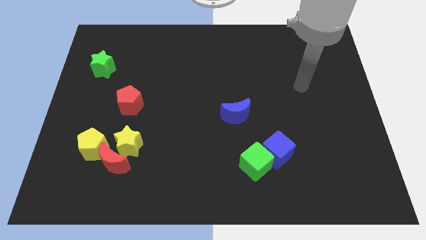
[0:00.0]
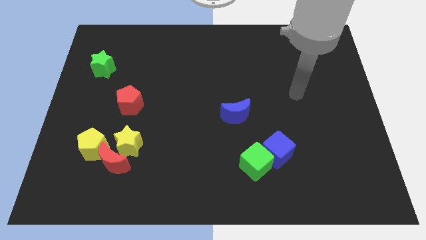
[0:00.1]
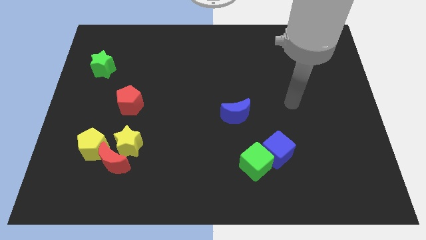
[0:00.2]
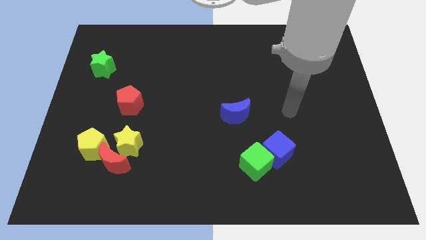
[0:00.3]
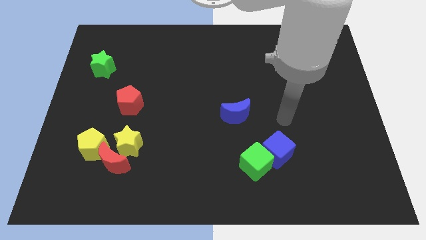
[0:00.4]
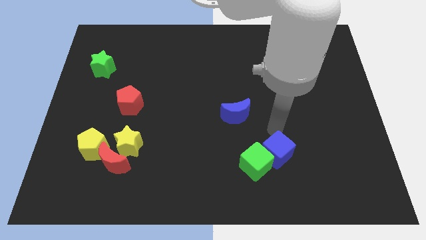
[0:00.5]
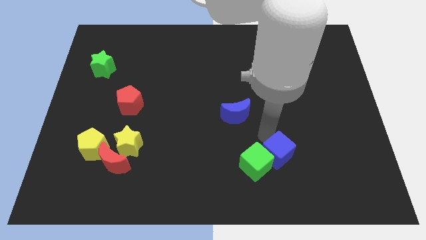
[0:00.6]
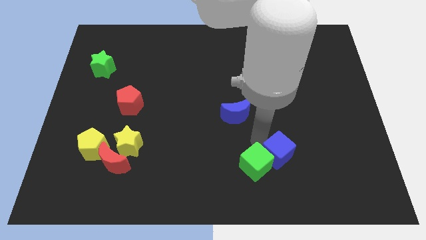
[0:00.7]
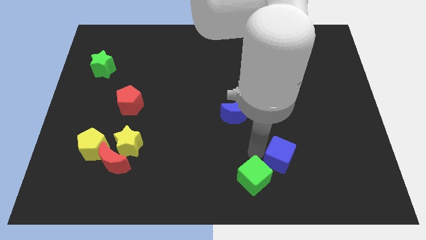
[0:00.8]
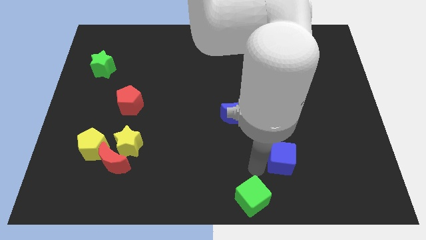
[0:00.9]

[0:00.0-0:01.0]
move the blue cube away from the green cube

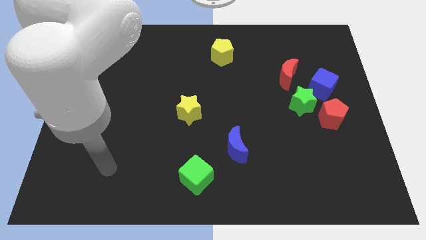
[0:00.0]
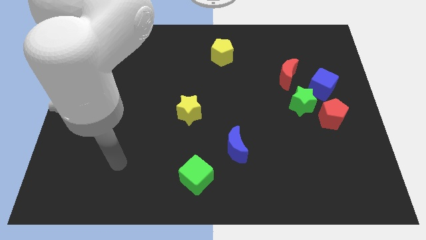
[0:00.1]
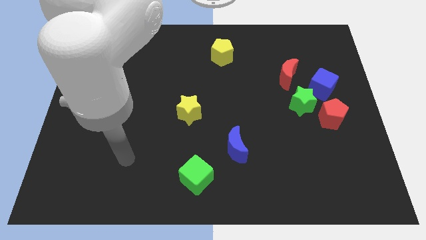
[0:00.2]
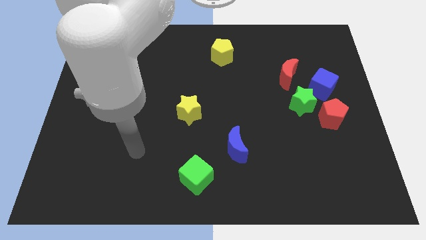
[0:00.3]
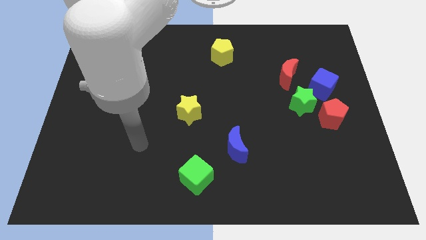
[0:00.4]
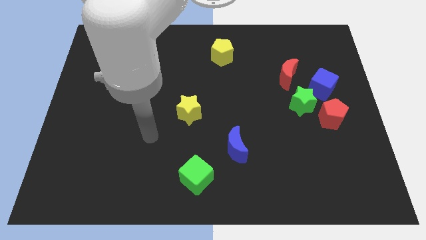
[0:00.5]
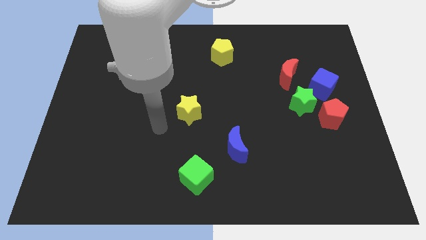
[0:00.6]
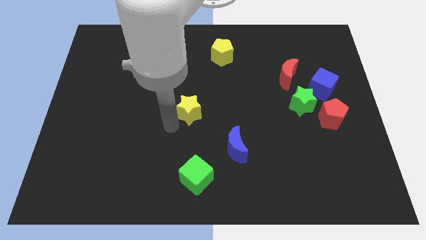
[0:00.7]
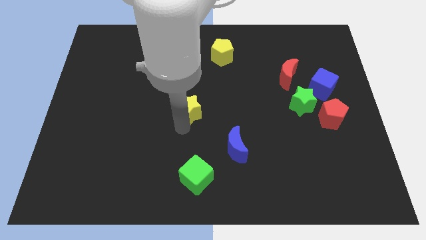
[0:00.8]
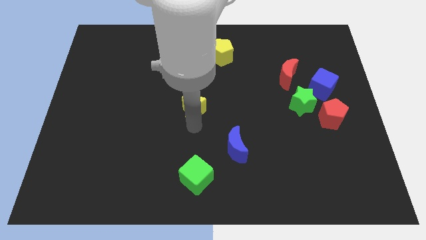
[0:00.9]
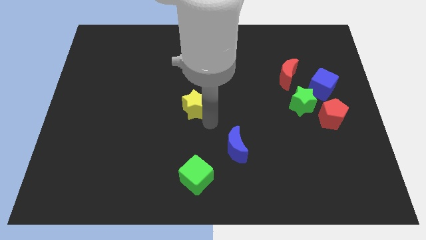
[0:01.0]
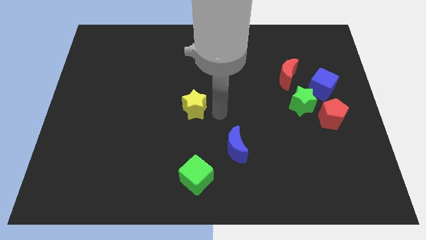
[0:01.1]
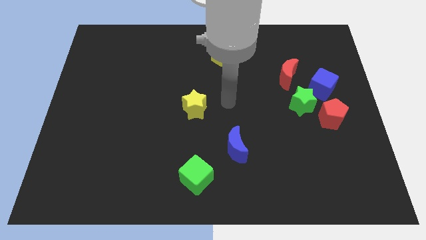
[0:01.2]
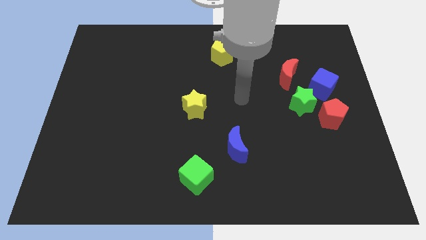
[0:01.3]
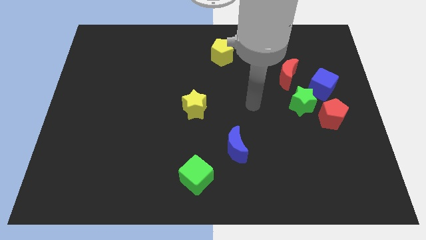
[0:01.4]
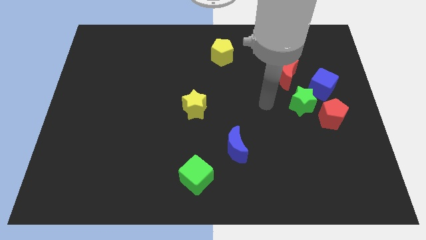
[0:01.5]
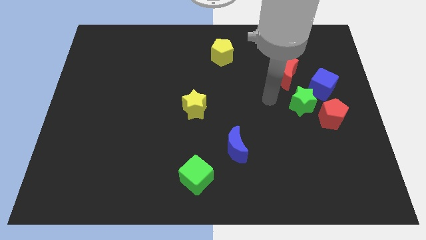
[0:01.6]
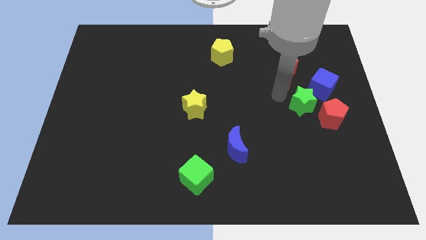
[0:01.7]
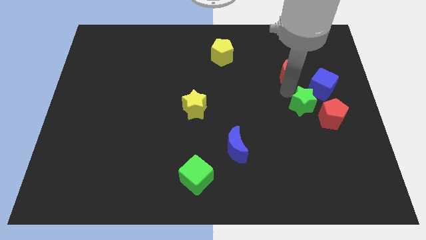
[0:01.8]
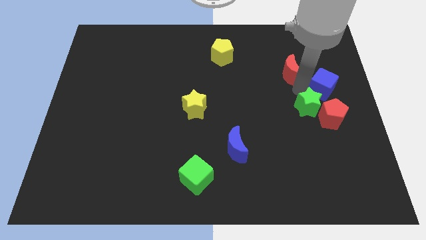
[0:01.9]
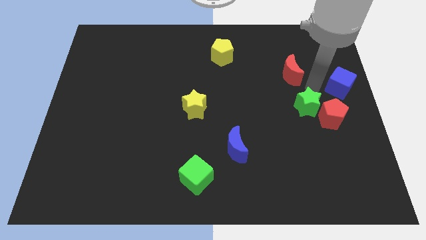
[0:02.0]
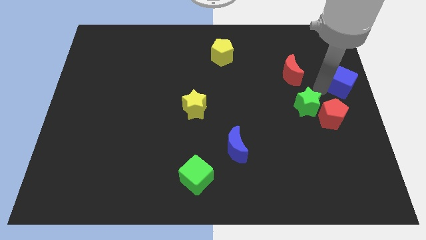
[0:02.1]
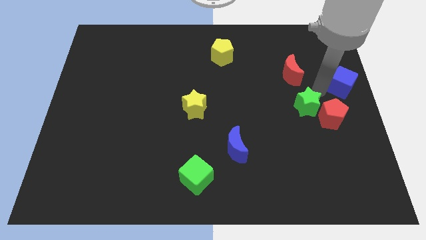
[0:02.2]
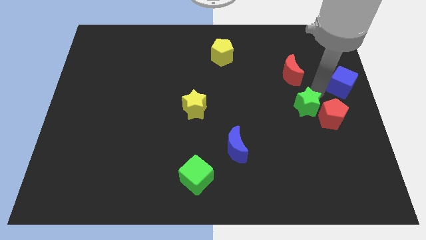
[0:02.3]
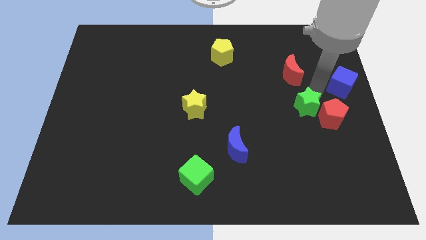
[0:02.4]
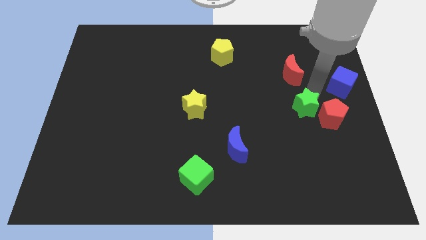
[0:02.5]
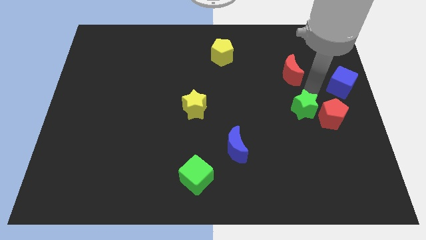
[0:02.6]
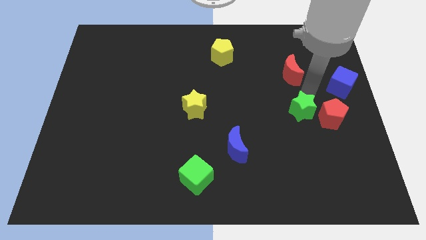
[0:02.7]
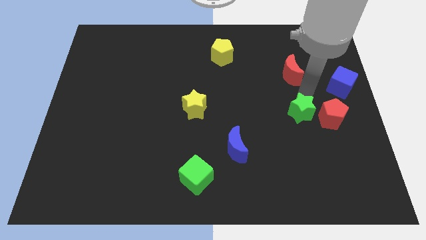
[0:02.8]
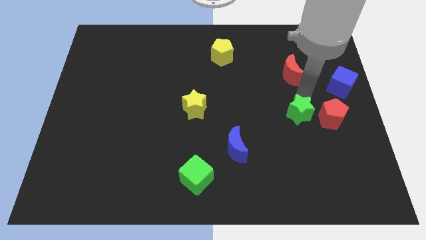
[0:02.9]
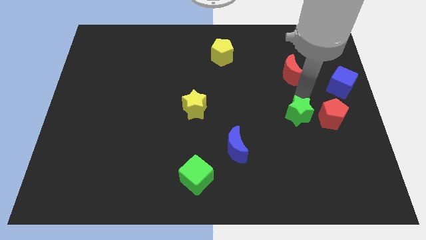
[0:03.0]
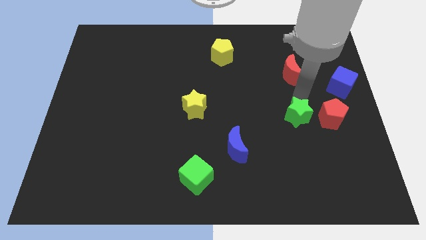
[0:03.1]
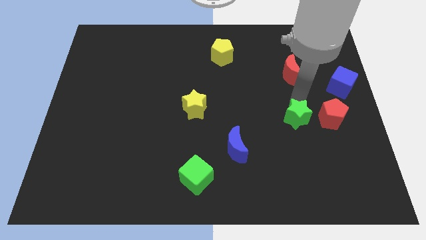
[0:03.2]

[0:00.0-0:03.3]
move the green star away from the red pentagon, blue cube, and red moon

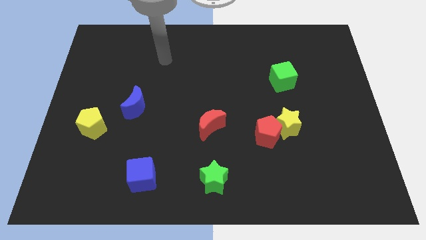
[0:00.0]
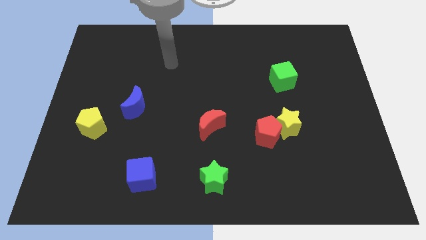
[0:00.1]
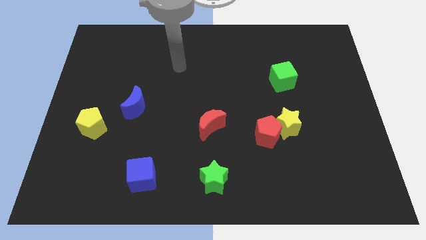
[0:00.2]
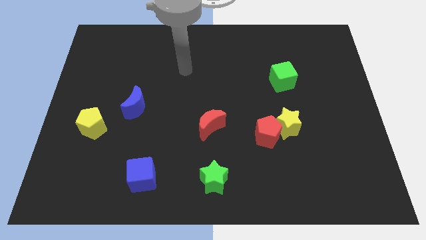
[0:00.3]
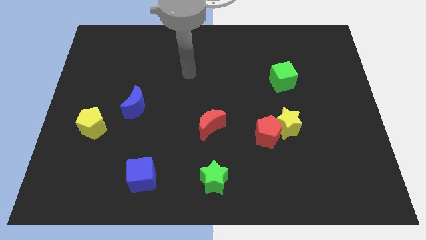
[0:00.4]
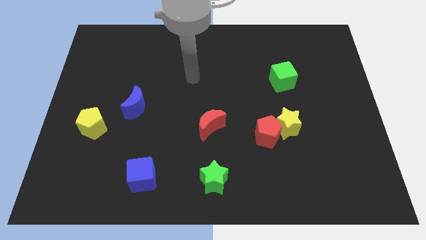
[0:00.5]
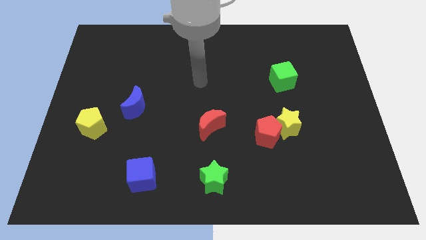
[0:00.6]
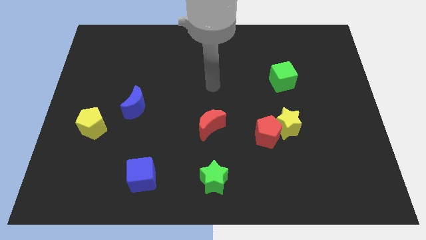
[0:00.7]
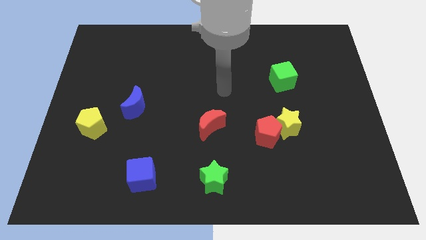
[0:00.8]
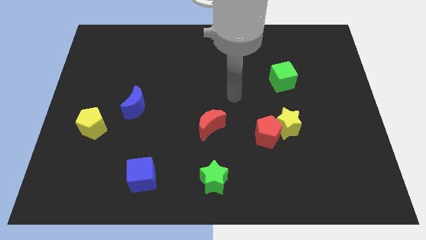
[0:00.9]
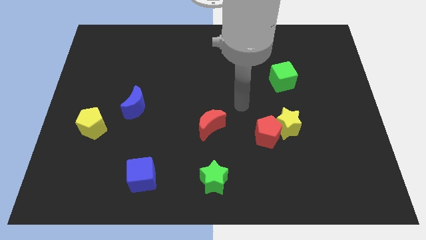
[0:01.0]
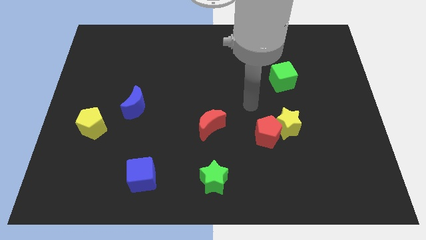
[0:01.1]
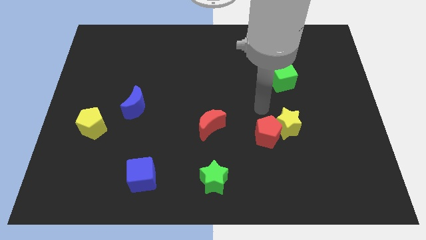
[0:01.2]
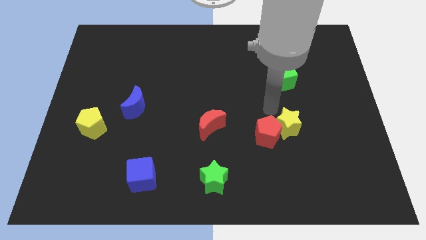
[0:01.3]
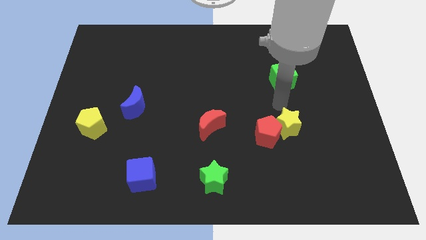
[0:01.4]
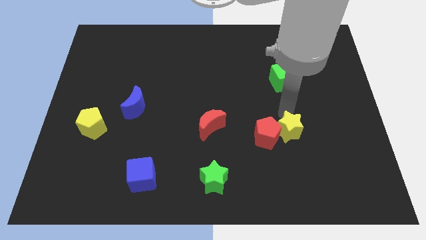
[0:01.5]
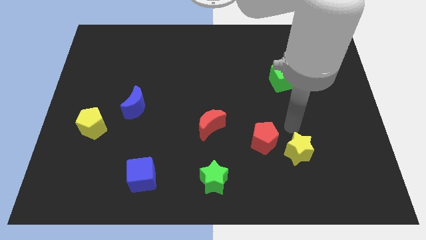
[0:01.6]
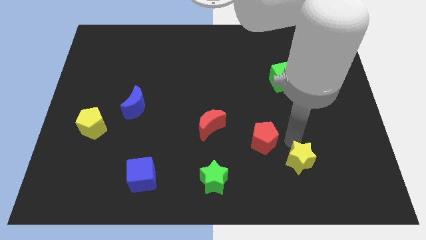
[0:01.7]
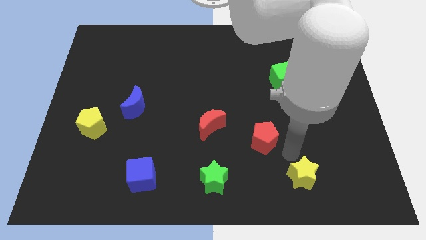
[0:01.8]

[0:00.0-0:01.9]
pull the red pentagon apart from the yellow star

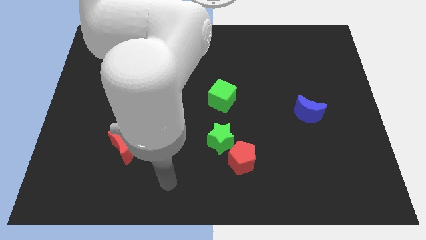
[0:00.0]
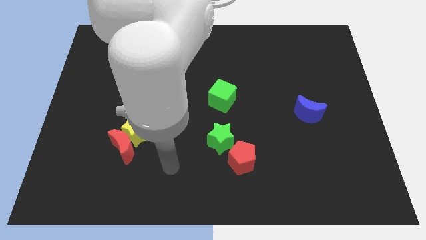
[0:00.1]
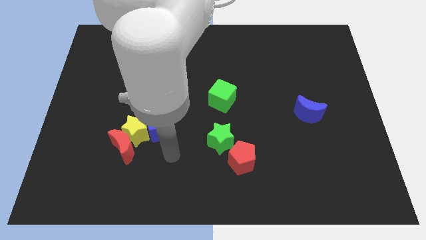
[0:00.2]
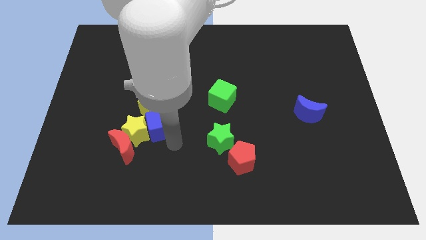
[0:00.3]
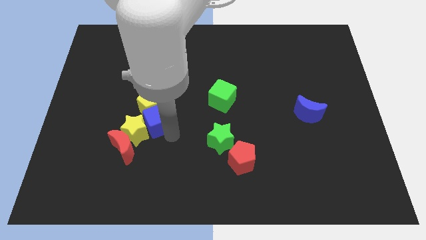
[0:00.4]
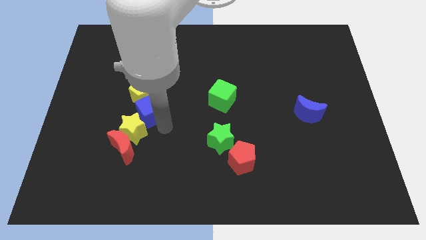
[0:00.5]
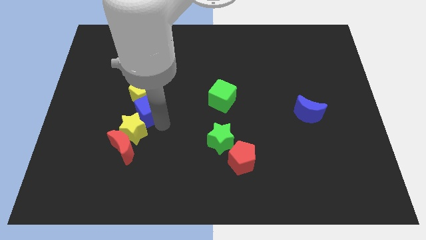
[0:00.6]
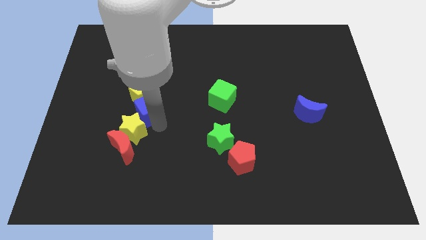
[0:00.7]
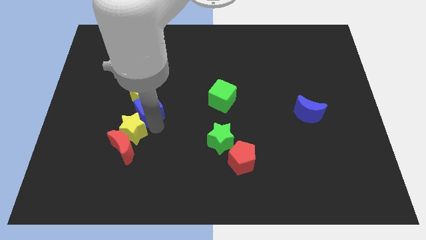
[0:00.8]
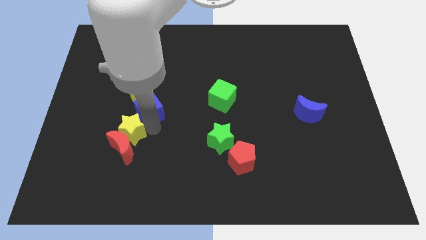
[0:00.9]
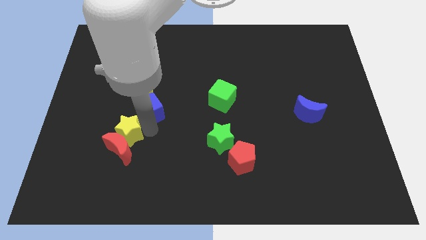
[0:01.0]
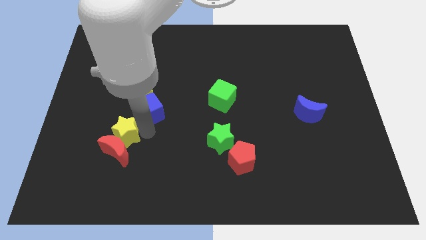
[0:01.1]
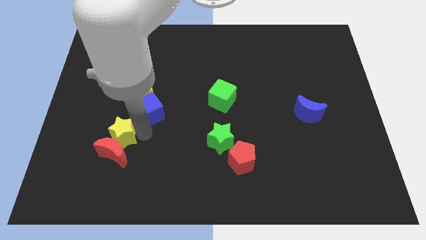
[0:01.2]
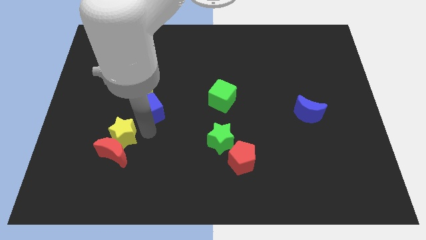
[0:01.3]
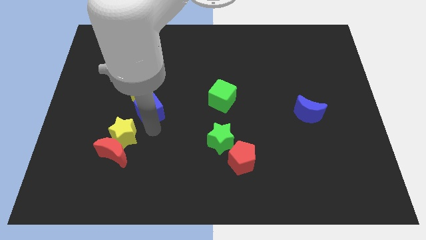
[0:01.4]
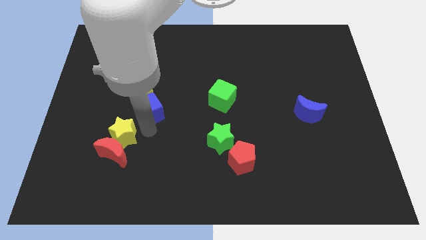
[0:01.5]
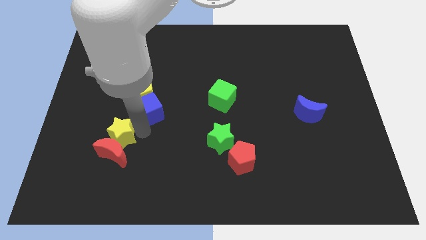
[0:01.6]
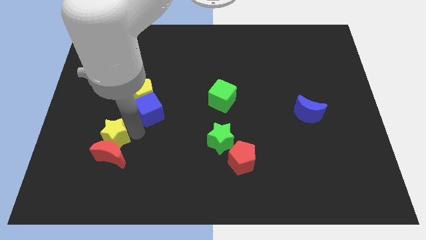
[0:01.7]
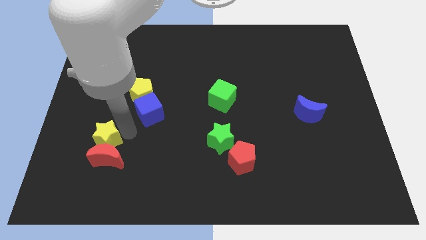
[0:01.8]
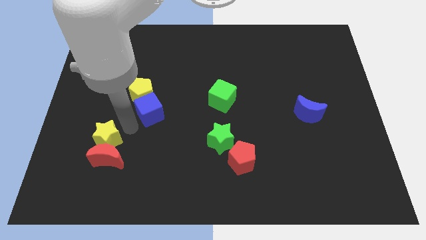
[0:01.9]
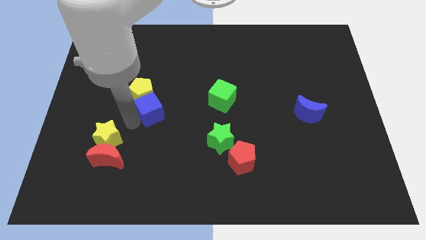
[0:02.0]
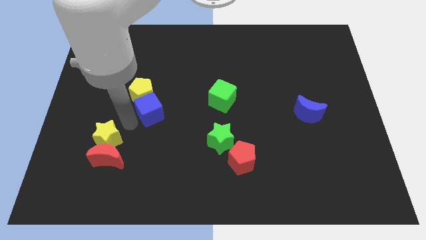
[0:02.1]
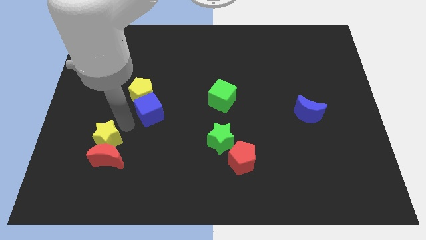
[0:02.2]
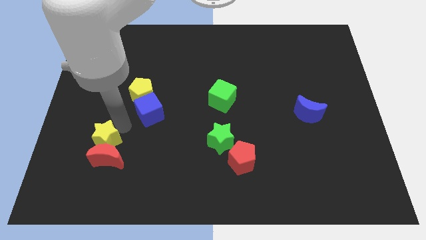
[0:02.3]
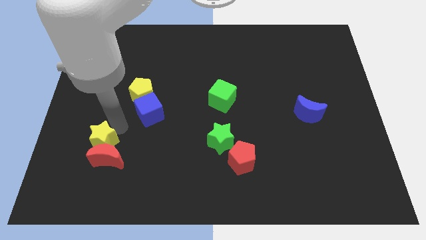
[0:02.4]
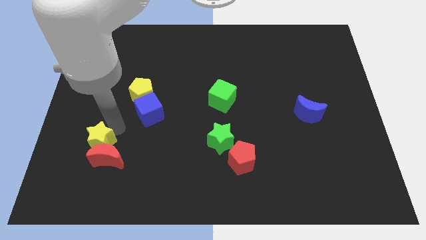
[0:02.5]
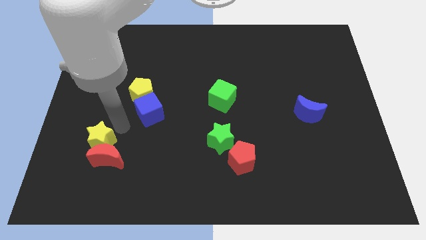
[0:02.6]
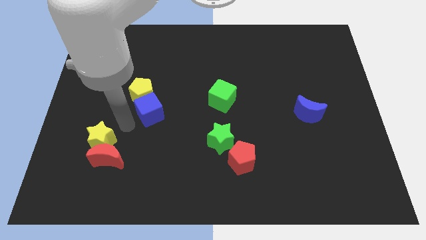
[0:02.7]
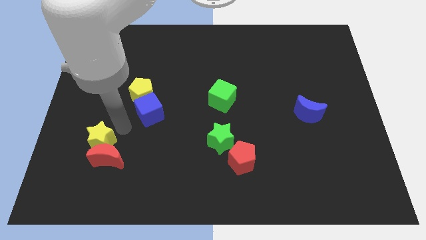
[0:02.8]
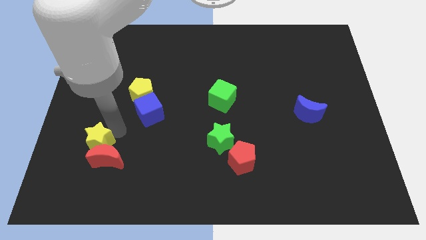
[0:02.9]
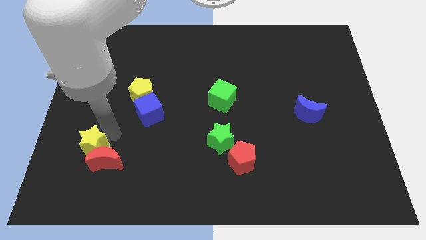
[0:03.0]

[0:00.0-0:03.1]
pull the yellow star apart from the clump

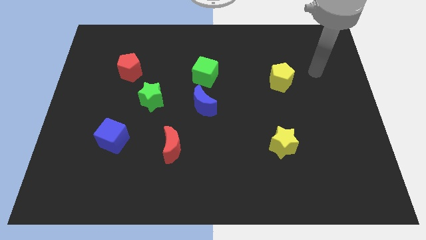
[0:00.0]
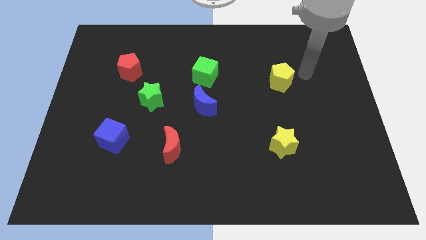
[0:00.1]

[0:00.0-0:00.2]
pull the blue moon apart from the green cube
